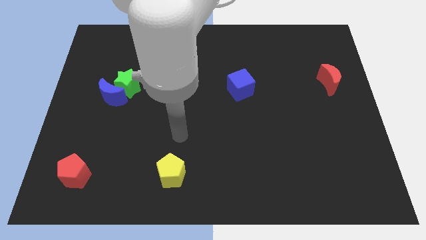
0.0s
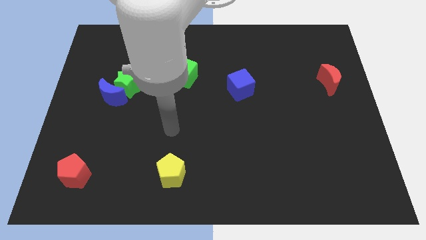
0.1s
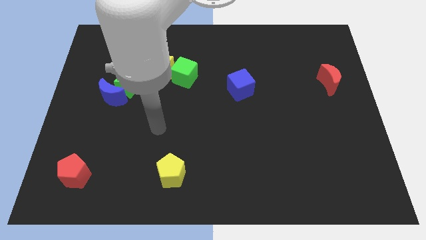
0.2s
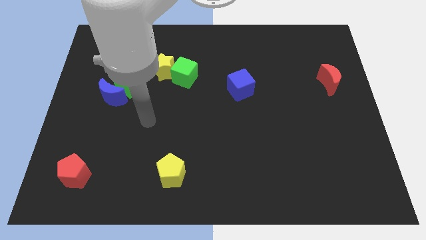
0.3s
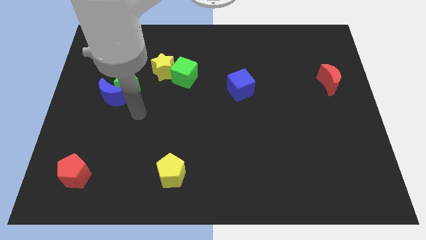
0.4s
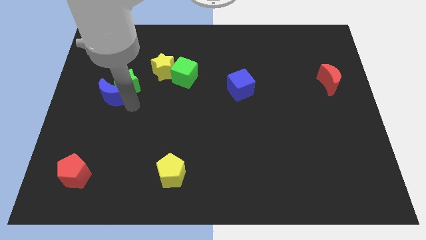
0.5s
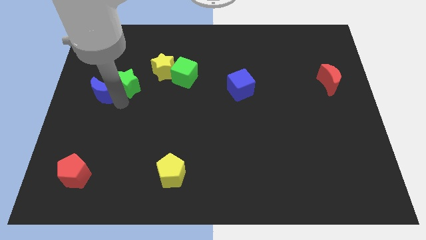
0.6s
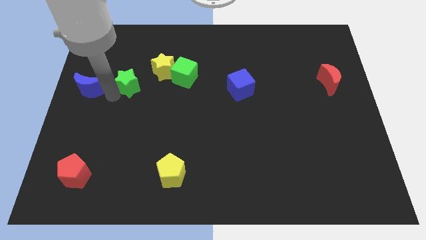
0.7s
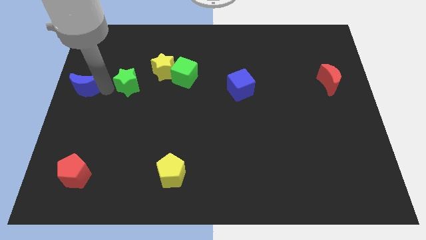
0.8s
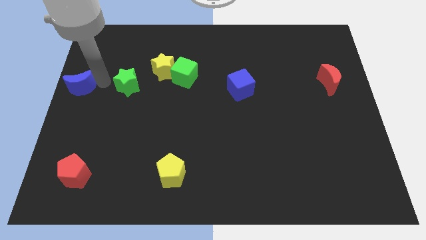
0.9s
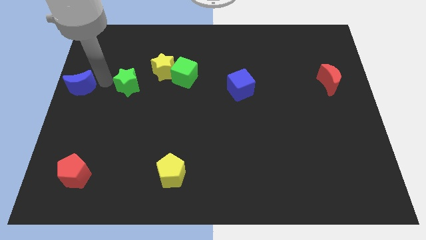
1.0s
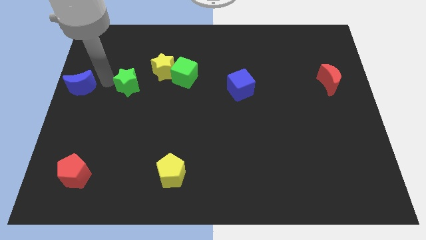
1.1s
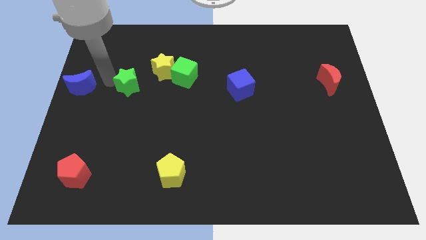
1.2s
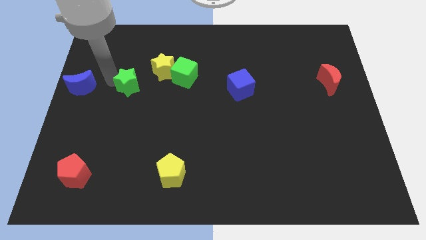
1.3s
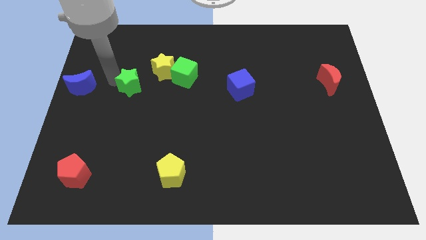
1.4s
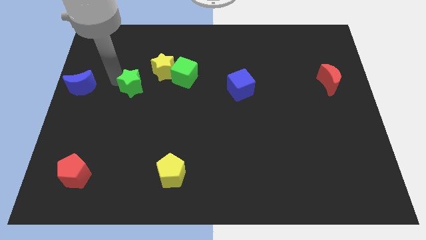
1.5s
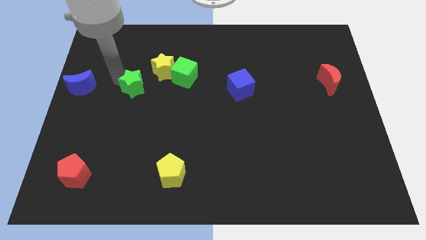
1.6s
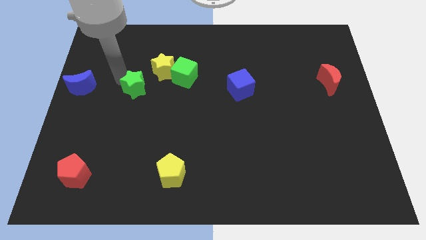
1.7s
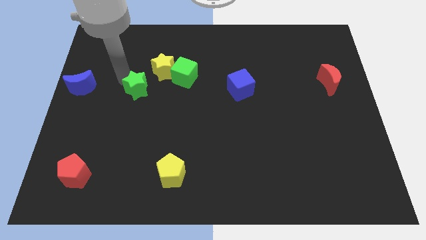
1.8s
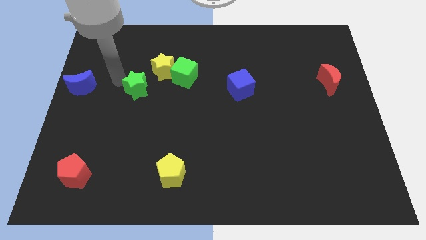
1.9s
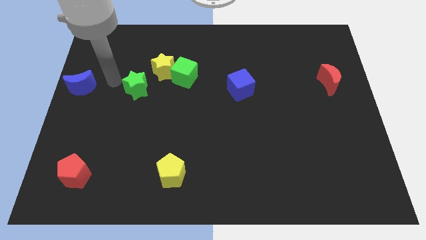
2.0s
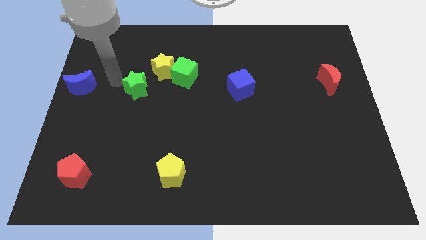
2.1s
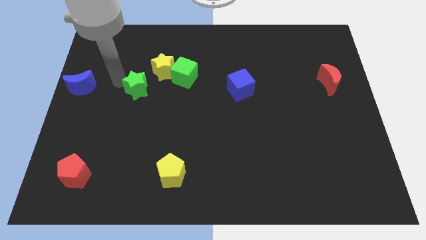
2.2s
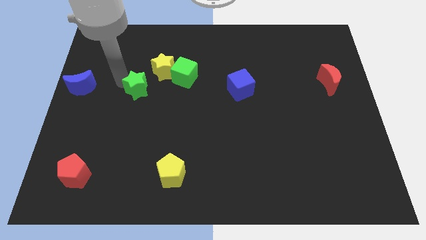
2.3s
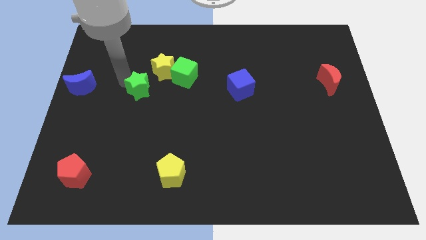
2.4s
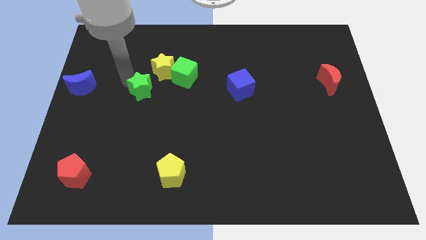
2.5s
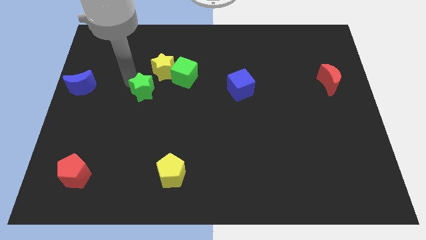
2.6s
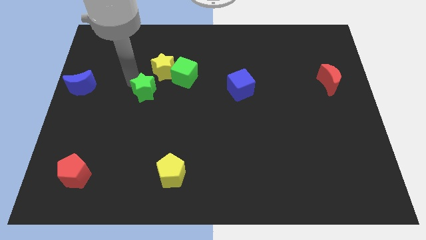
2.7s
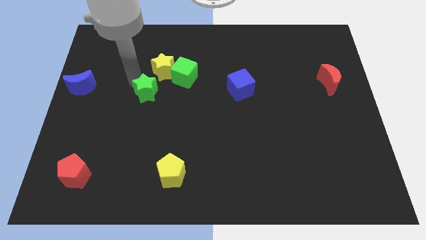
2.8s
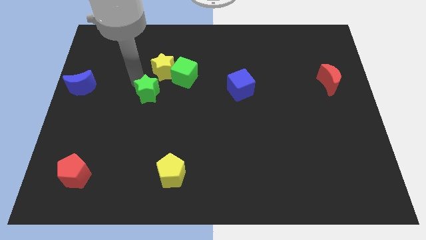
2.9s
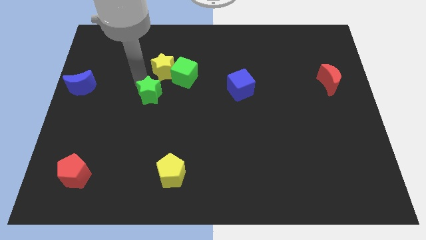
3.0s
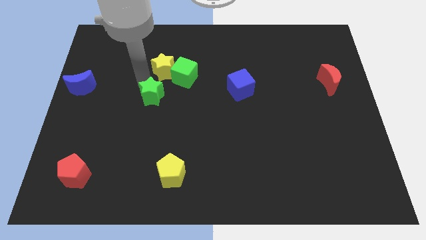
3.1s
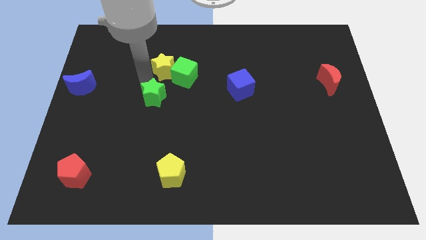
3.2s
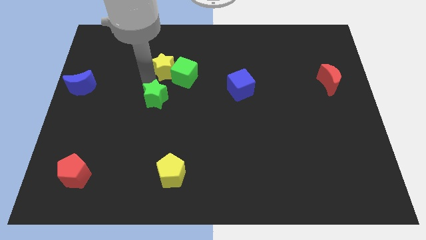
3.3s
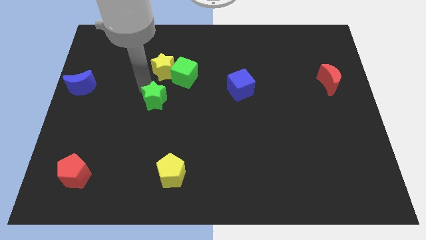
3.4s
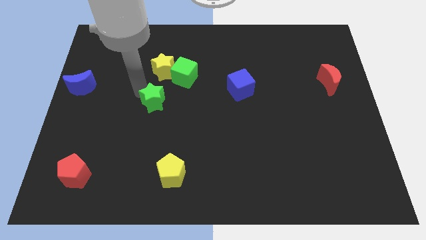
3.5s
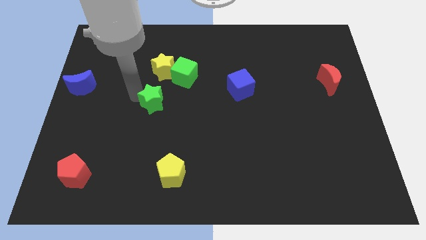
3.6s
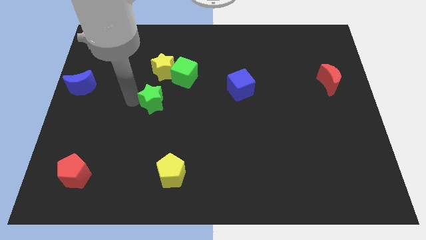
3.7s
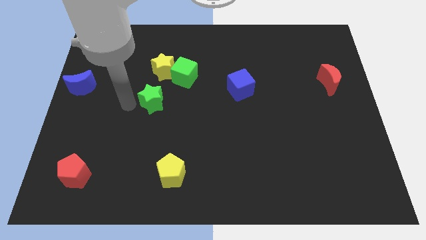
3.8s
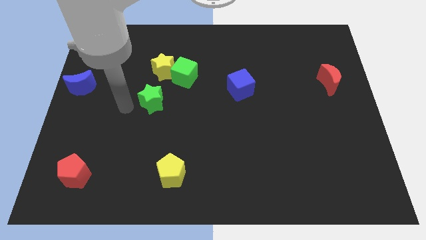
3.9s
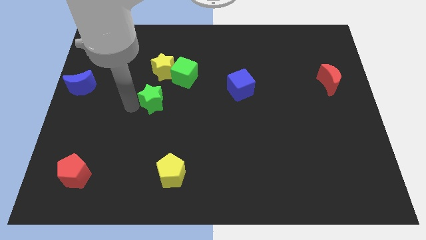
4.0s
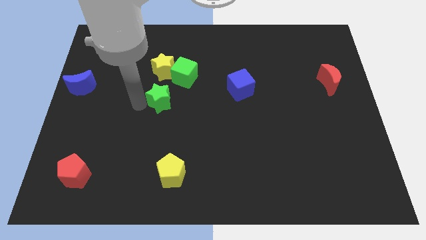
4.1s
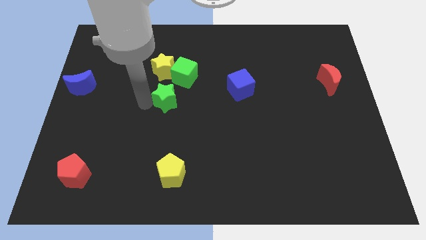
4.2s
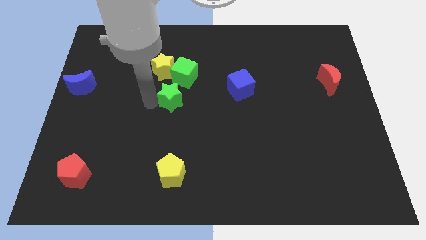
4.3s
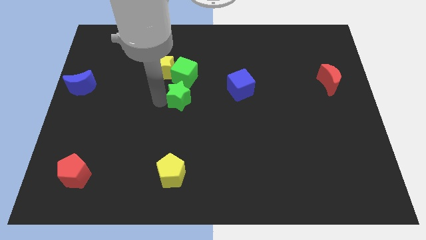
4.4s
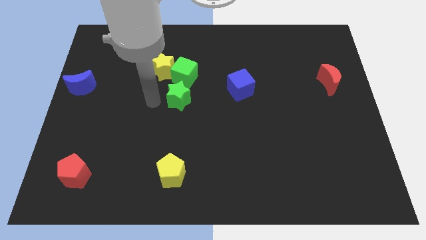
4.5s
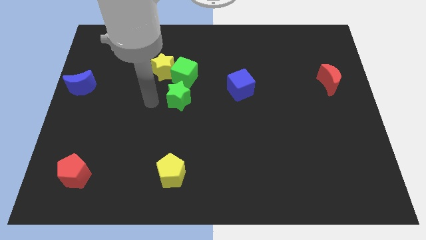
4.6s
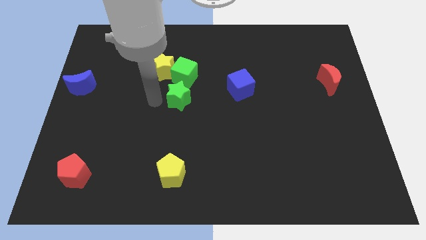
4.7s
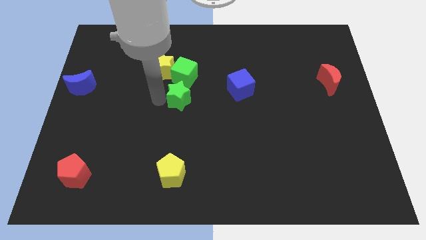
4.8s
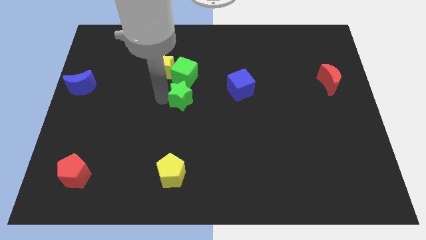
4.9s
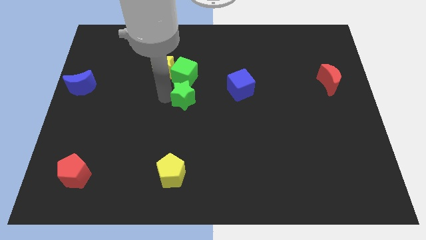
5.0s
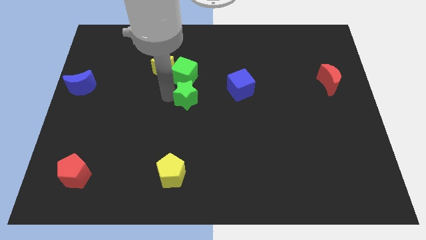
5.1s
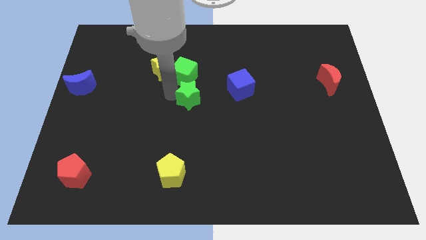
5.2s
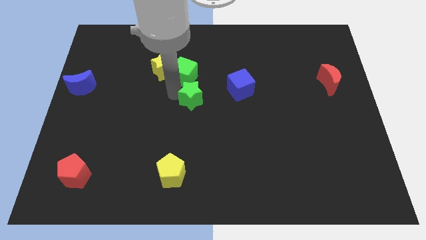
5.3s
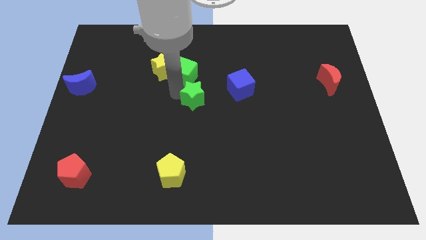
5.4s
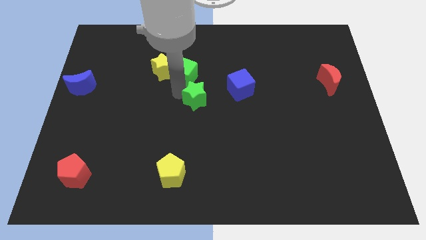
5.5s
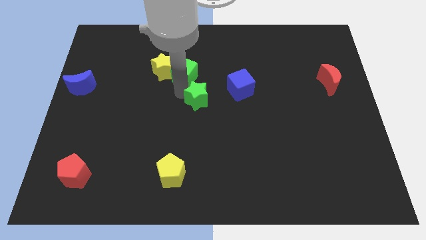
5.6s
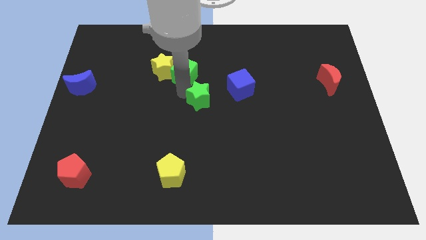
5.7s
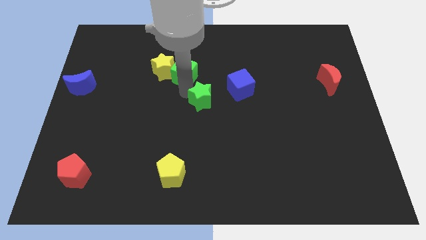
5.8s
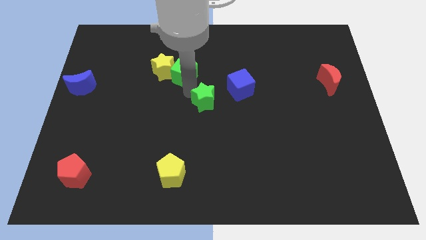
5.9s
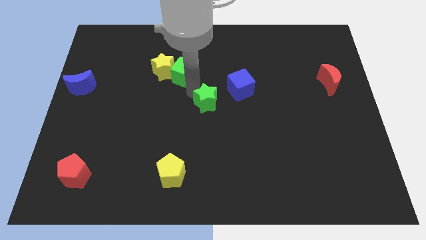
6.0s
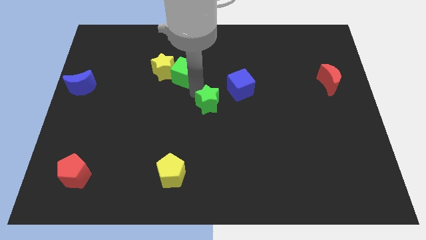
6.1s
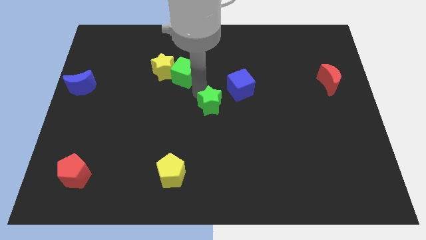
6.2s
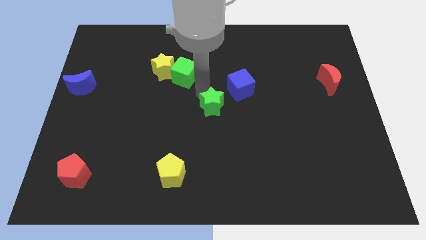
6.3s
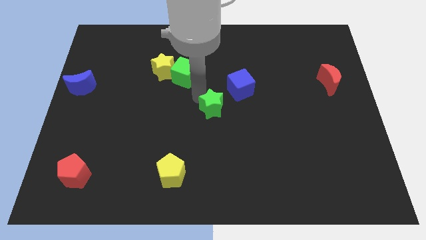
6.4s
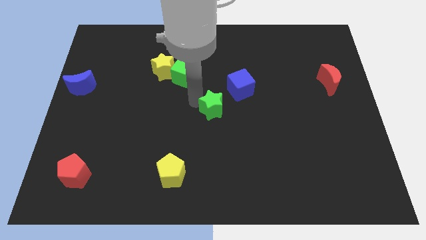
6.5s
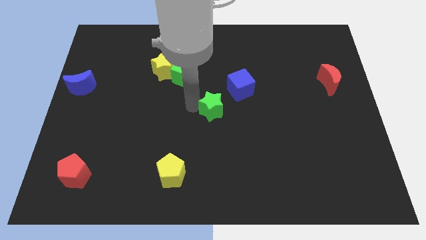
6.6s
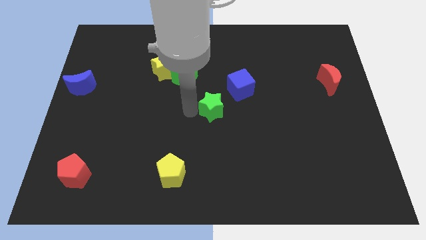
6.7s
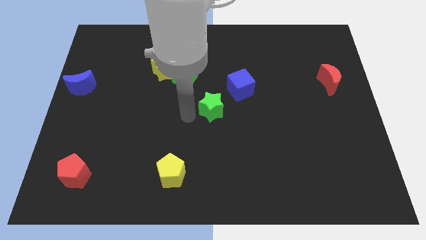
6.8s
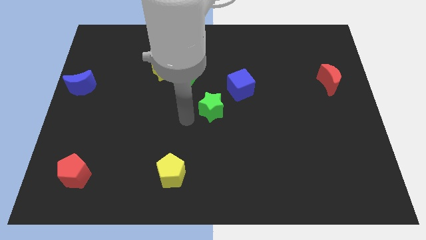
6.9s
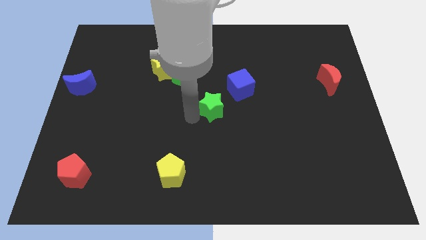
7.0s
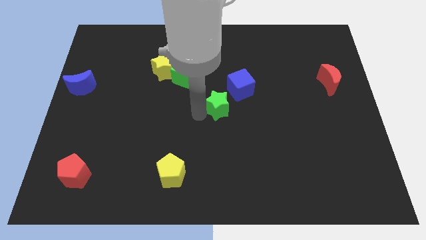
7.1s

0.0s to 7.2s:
push the green star right

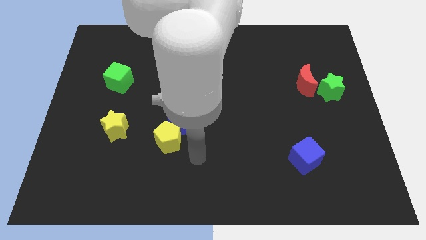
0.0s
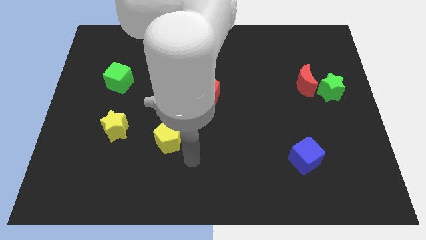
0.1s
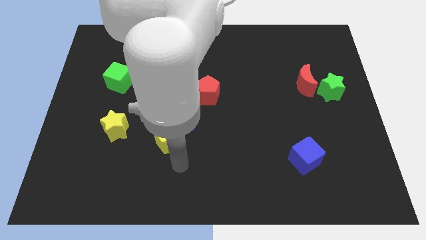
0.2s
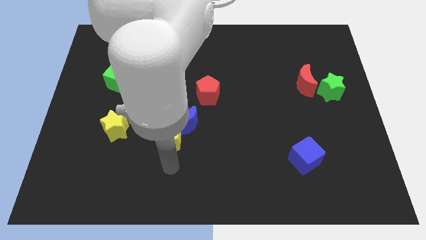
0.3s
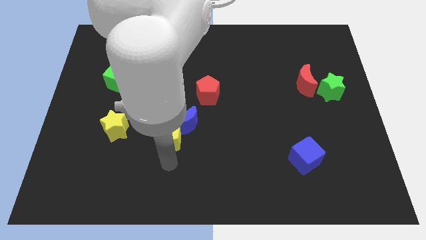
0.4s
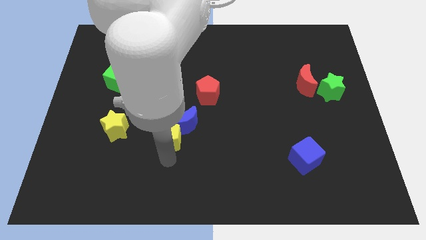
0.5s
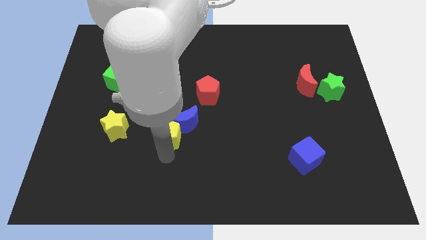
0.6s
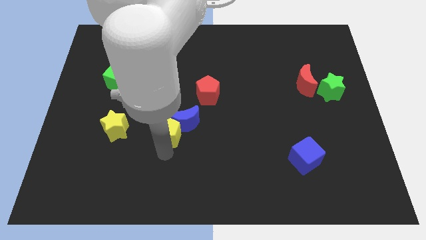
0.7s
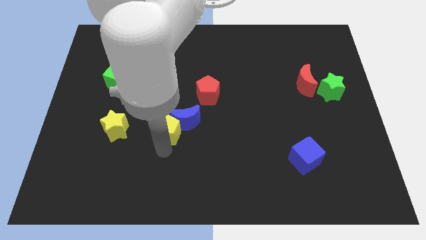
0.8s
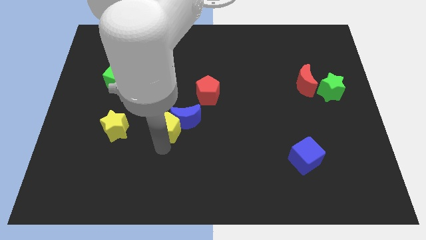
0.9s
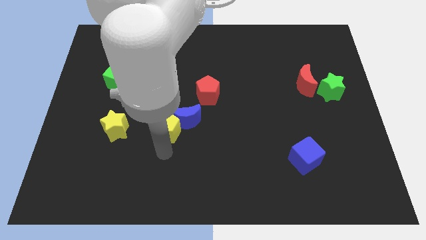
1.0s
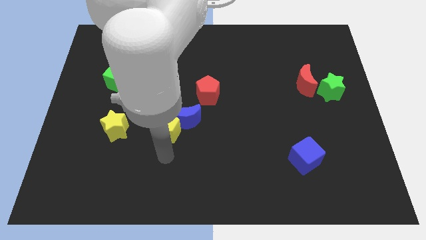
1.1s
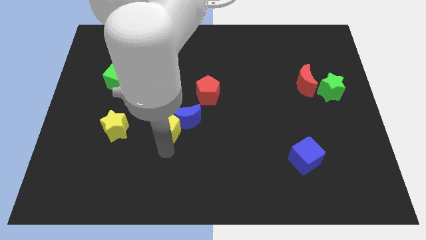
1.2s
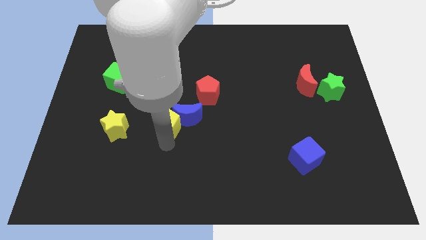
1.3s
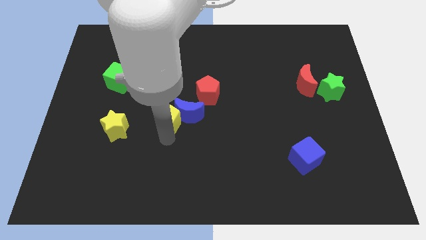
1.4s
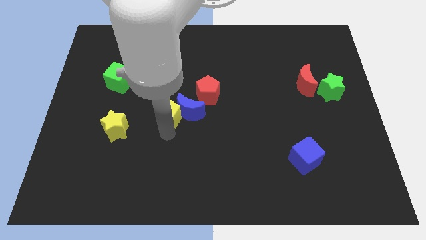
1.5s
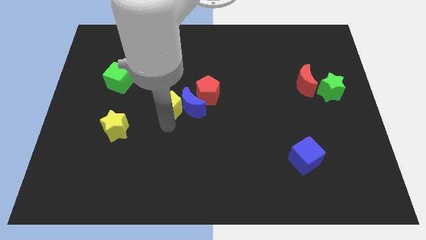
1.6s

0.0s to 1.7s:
push the yellow pentagon somewhat up
